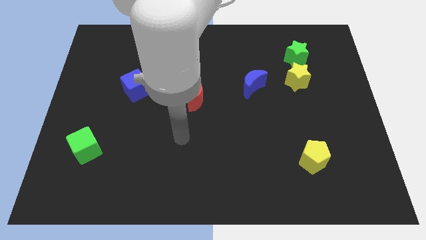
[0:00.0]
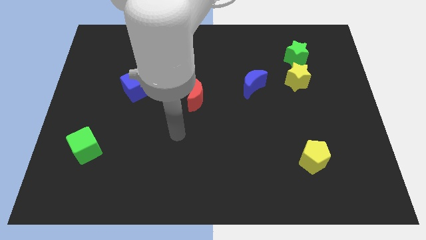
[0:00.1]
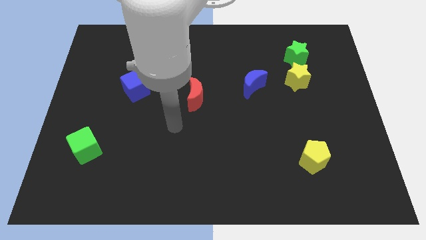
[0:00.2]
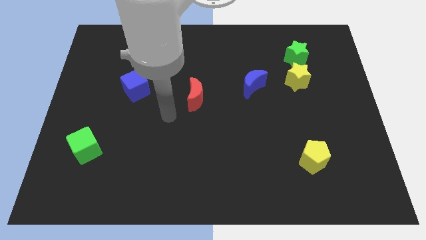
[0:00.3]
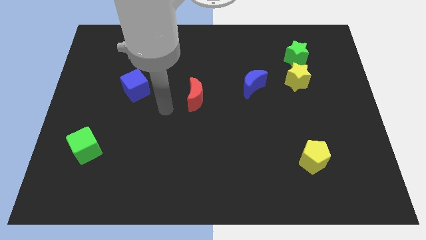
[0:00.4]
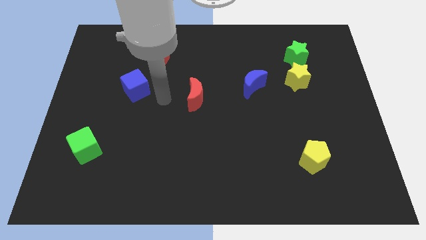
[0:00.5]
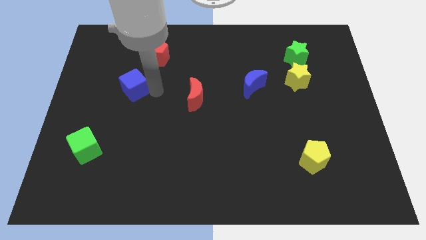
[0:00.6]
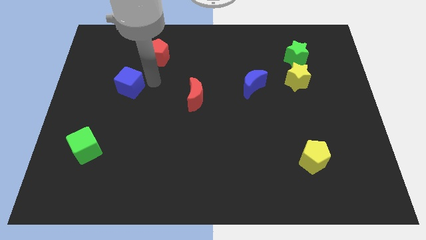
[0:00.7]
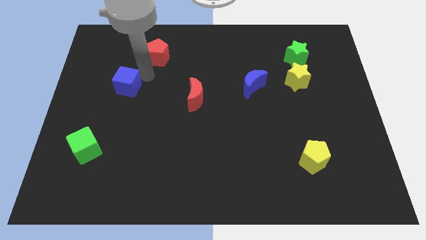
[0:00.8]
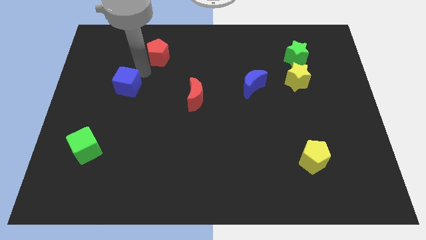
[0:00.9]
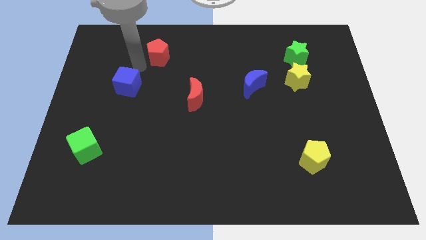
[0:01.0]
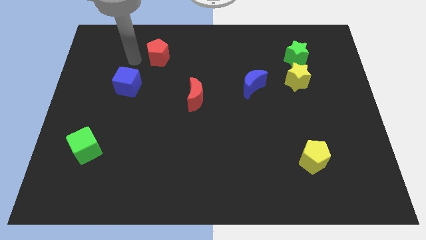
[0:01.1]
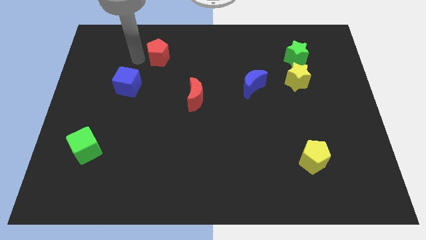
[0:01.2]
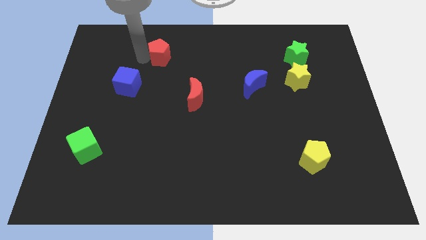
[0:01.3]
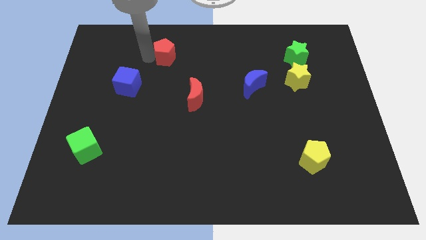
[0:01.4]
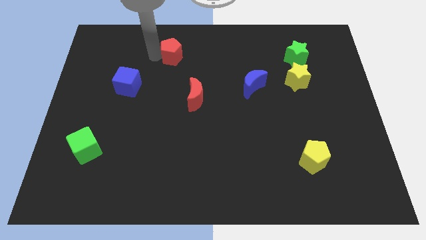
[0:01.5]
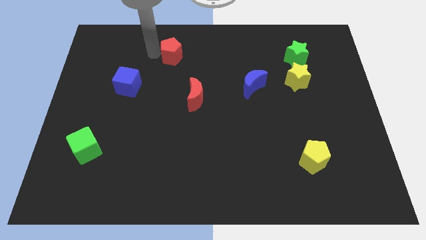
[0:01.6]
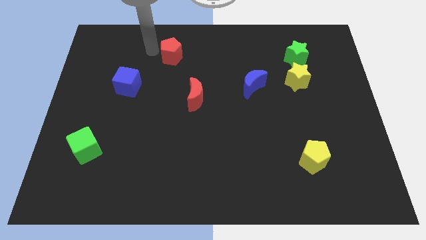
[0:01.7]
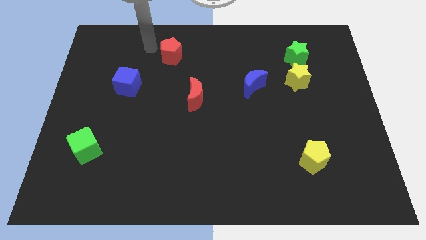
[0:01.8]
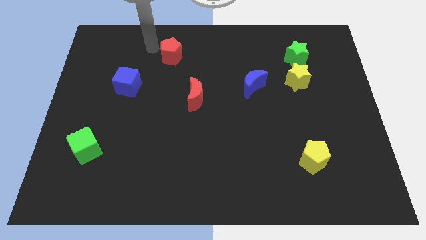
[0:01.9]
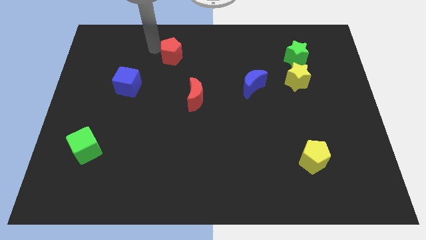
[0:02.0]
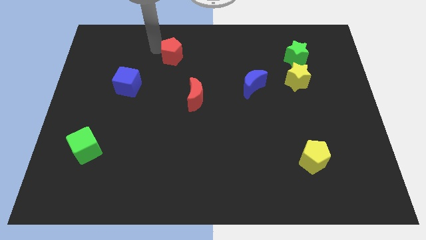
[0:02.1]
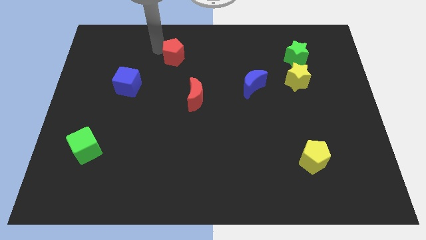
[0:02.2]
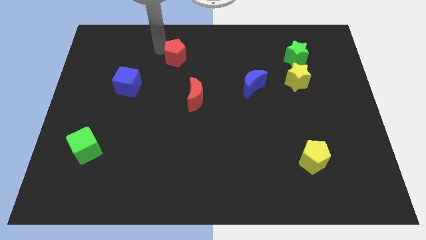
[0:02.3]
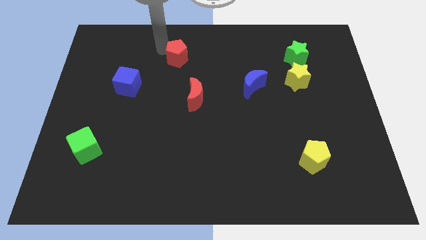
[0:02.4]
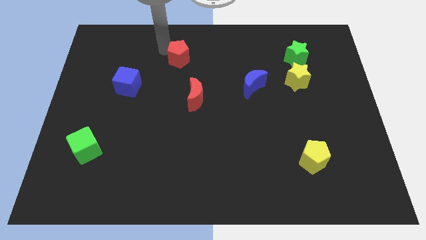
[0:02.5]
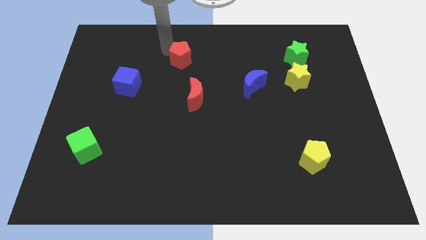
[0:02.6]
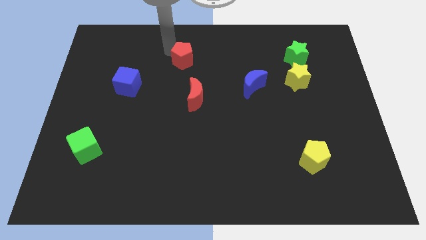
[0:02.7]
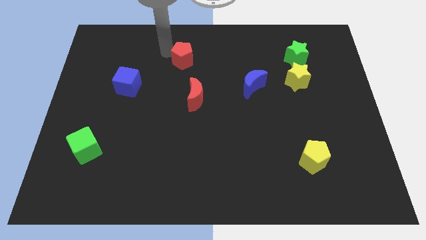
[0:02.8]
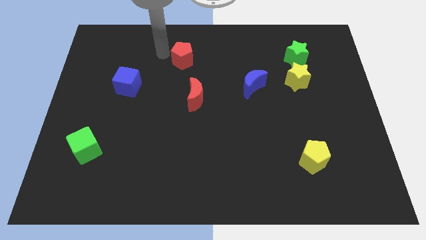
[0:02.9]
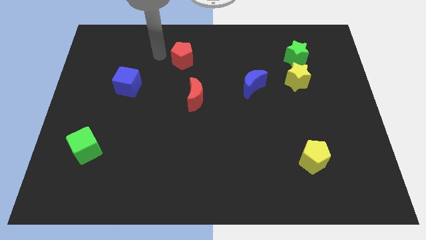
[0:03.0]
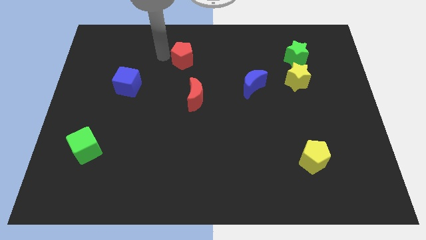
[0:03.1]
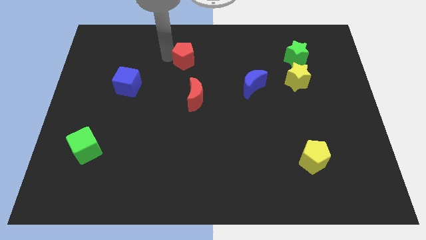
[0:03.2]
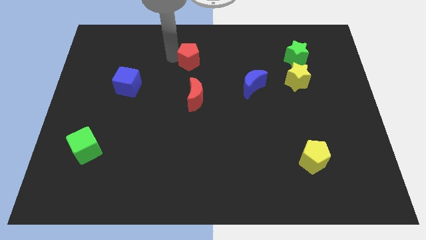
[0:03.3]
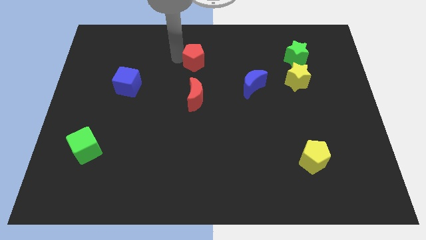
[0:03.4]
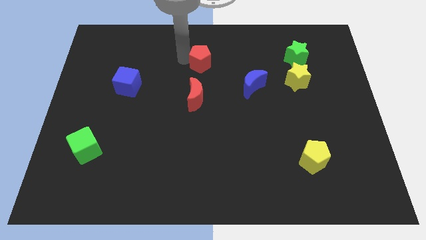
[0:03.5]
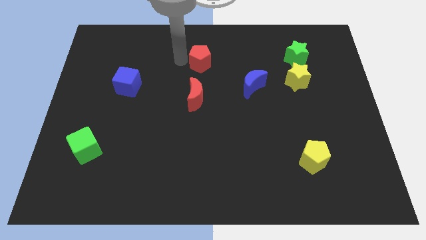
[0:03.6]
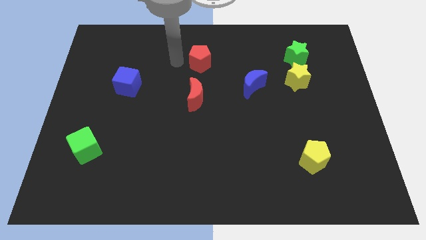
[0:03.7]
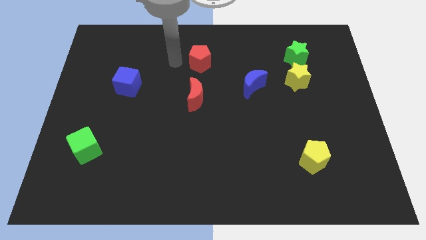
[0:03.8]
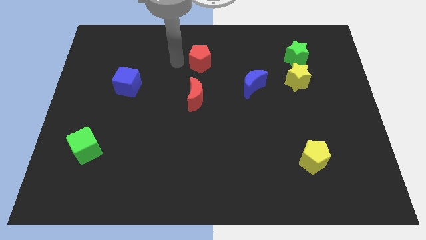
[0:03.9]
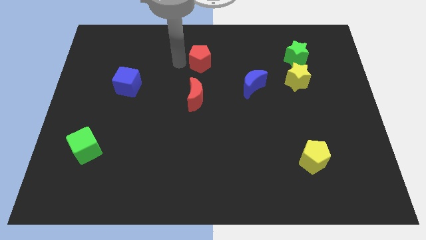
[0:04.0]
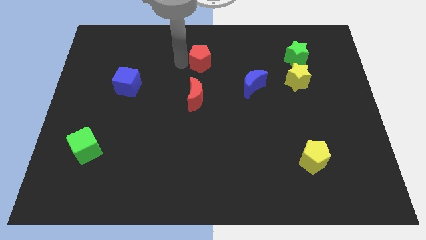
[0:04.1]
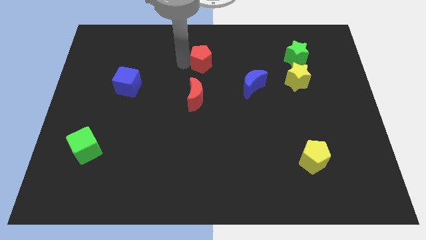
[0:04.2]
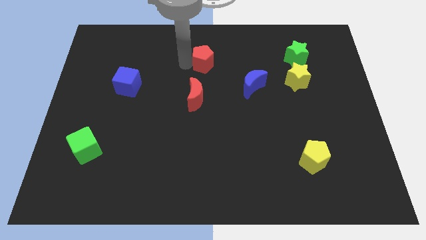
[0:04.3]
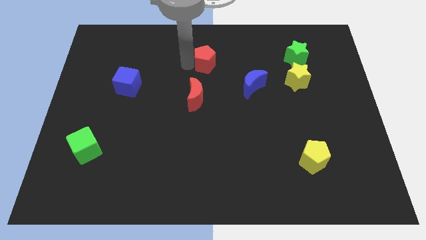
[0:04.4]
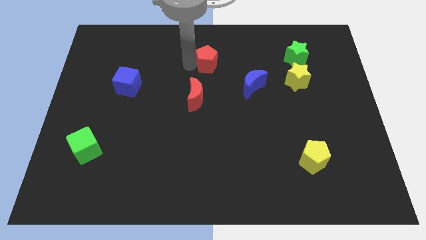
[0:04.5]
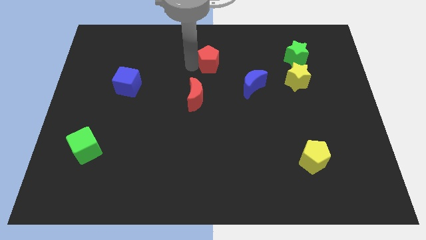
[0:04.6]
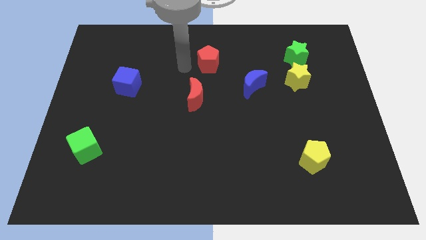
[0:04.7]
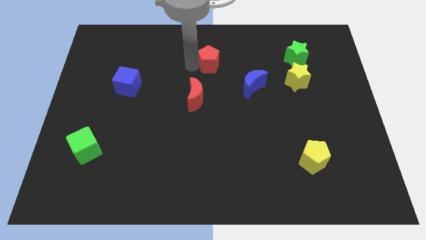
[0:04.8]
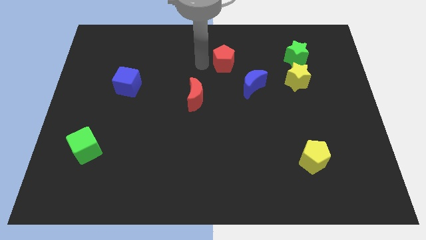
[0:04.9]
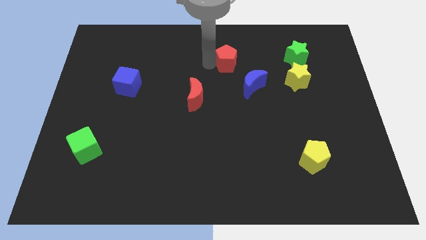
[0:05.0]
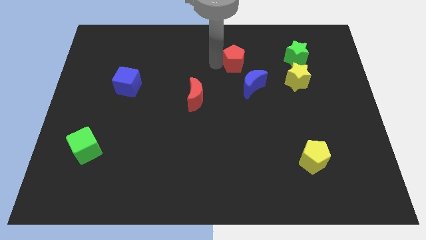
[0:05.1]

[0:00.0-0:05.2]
slide the red pentagon to the top side of the blue moon

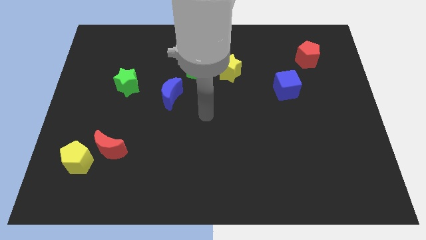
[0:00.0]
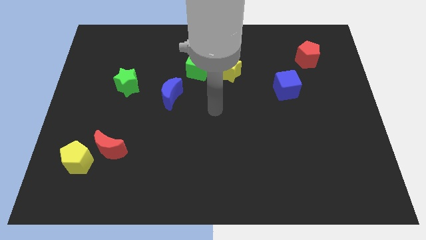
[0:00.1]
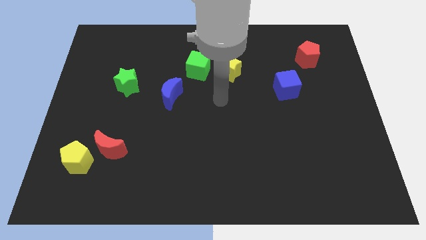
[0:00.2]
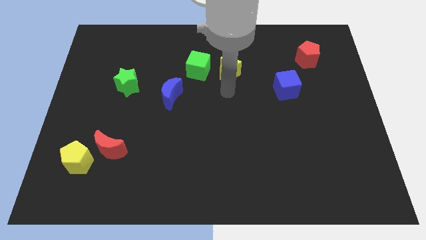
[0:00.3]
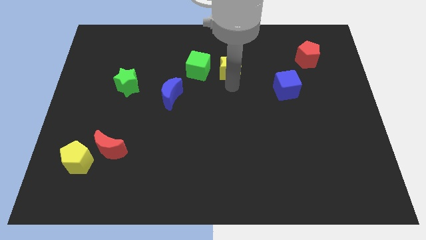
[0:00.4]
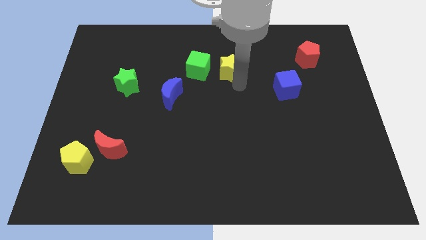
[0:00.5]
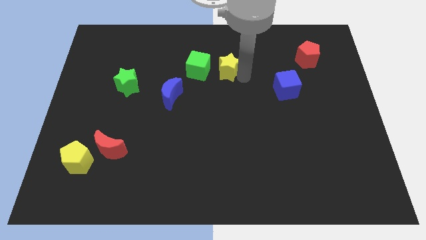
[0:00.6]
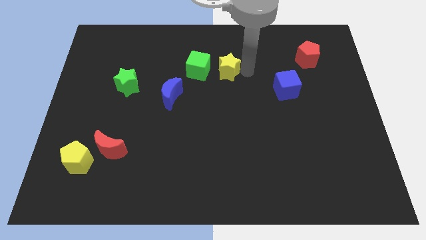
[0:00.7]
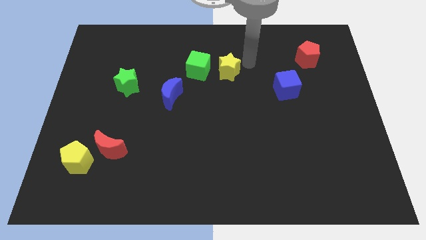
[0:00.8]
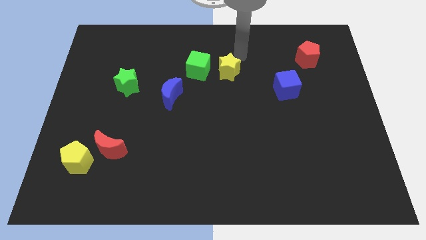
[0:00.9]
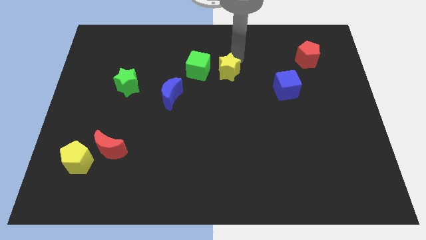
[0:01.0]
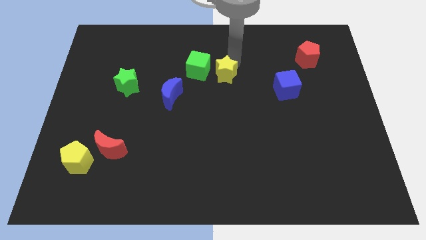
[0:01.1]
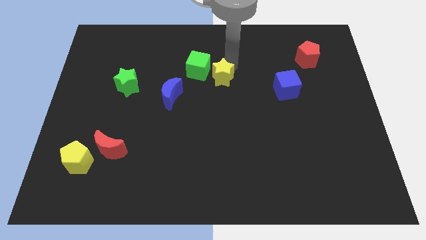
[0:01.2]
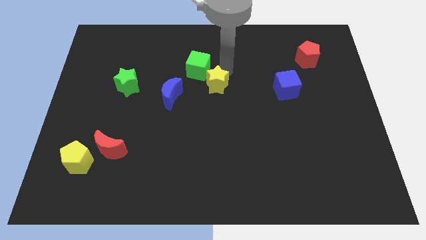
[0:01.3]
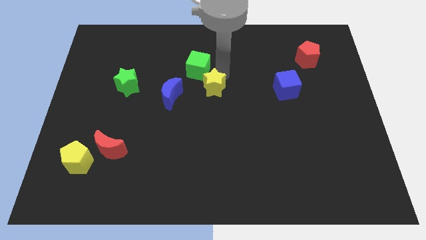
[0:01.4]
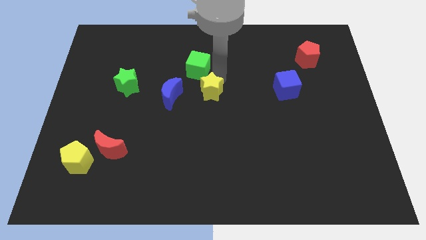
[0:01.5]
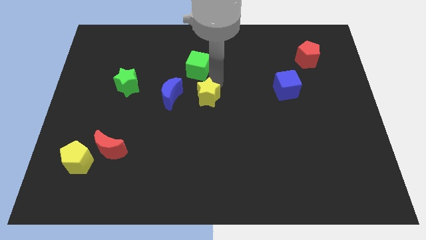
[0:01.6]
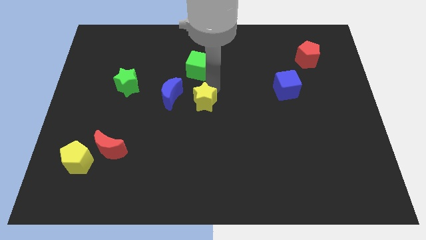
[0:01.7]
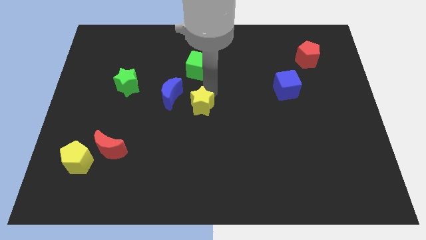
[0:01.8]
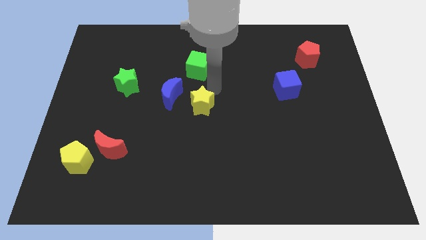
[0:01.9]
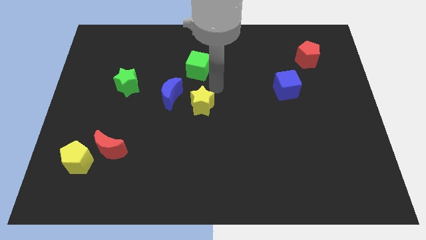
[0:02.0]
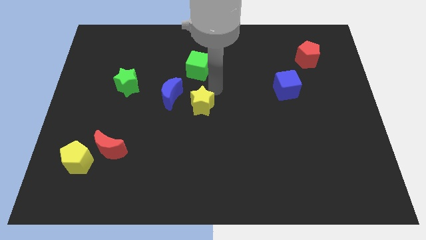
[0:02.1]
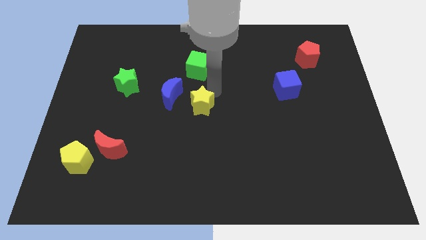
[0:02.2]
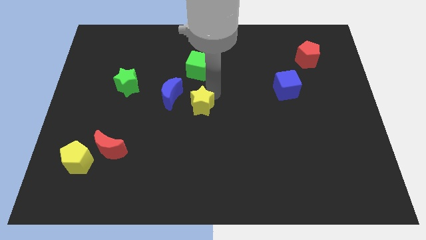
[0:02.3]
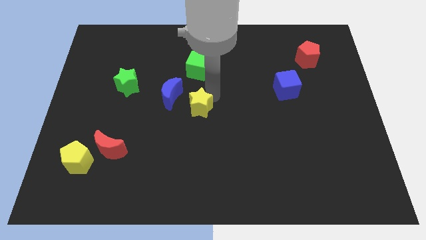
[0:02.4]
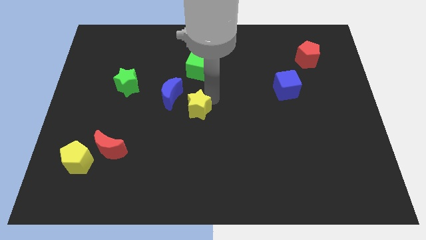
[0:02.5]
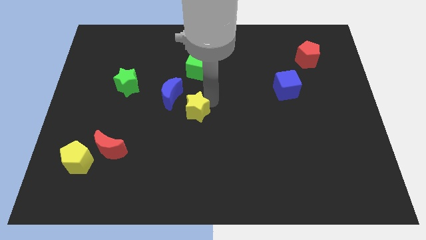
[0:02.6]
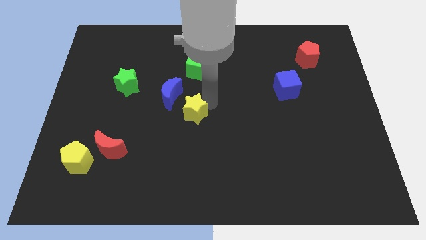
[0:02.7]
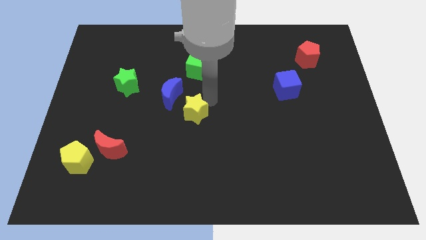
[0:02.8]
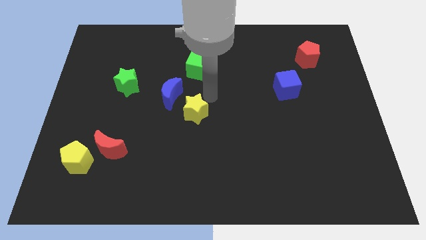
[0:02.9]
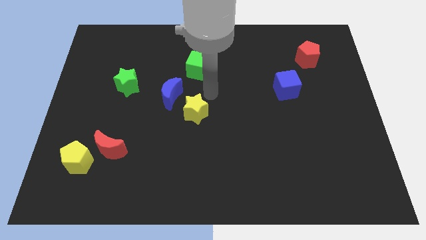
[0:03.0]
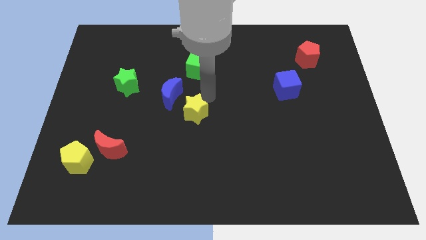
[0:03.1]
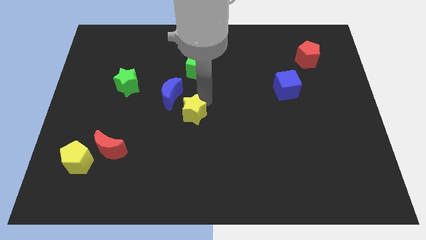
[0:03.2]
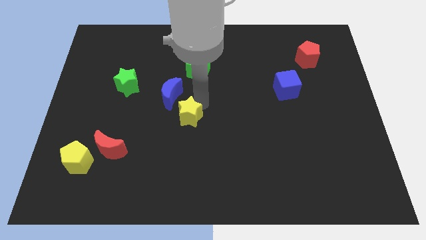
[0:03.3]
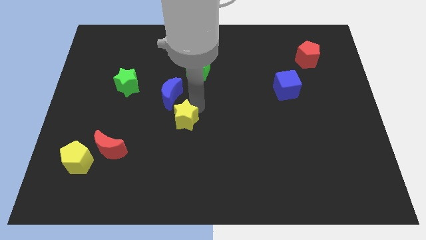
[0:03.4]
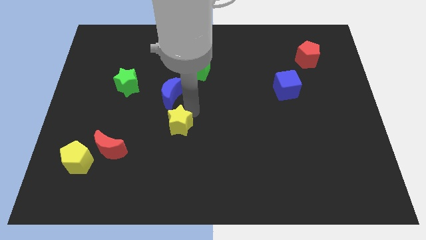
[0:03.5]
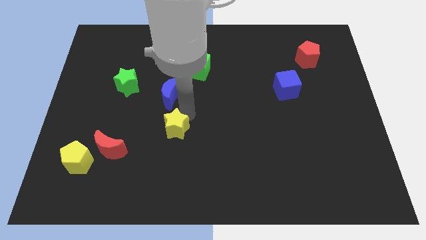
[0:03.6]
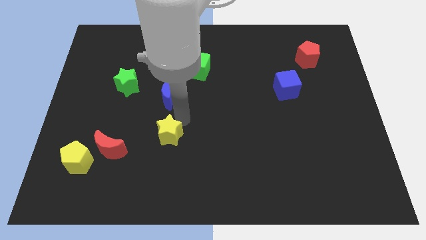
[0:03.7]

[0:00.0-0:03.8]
slide the yellow star to the right side of the red moon
